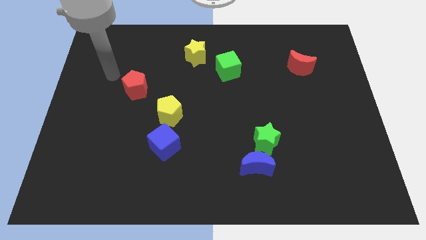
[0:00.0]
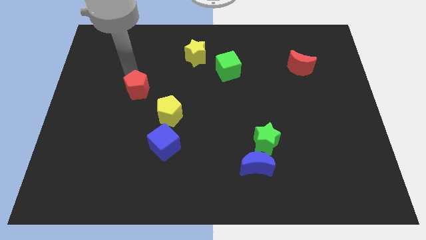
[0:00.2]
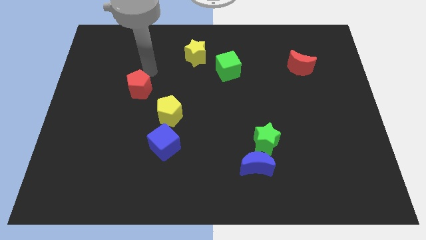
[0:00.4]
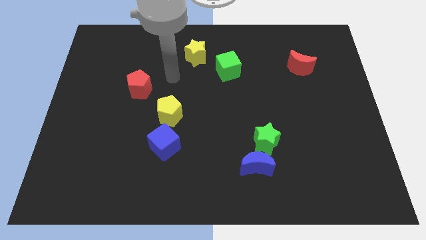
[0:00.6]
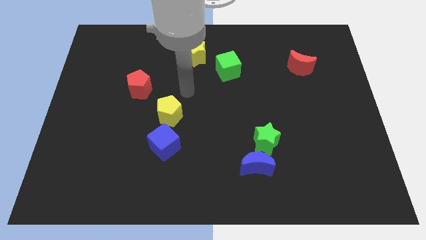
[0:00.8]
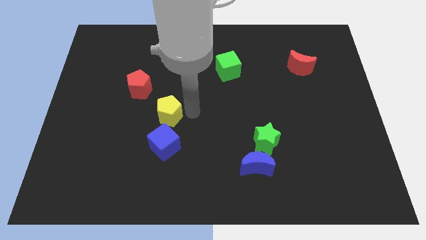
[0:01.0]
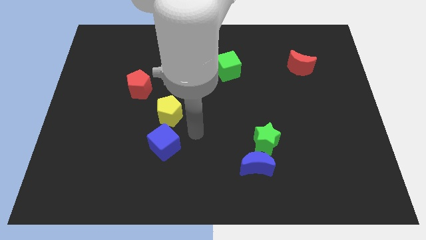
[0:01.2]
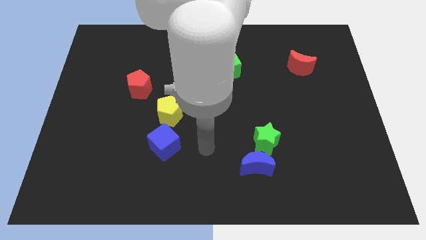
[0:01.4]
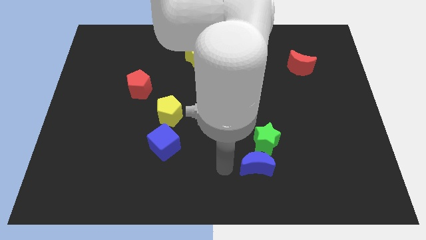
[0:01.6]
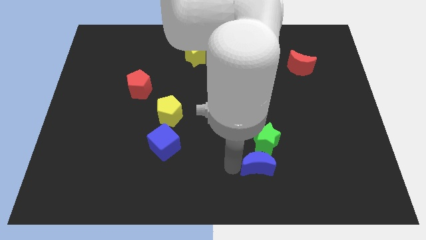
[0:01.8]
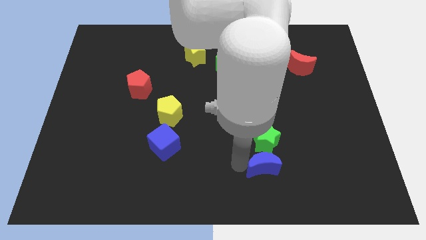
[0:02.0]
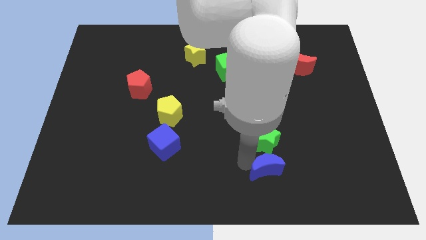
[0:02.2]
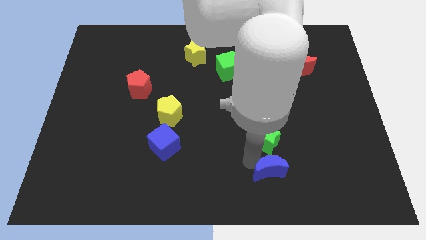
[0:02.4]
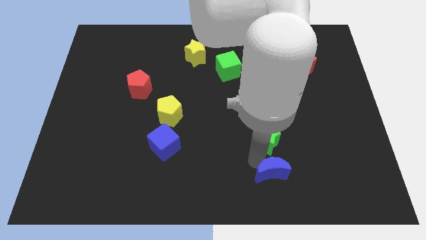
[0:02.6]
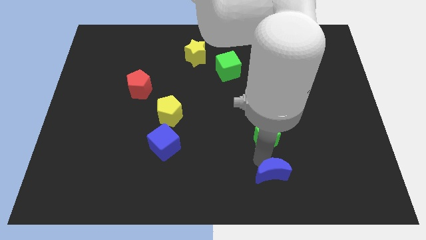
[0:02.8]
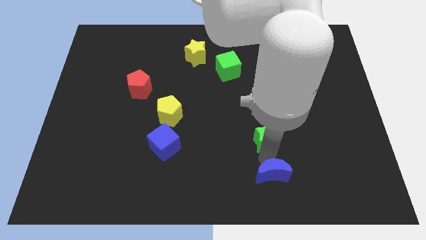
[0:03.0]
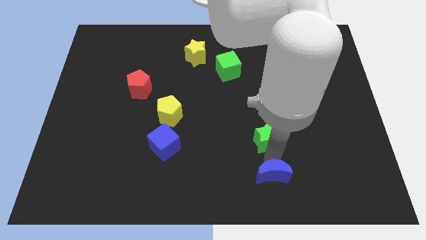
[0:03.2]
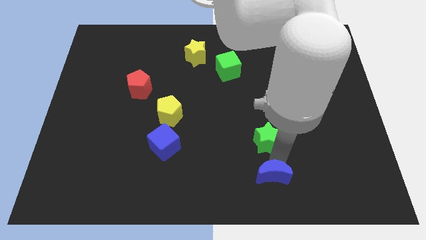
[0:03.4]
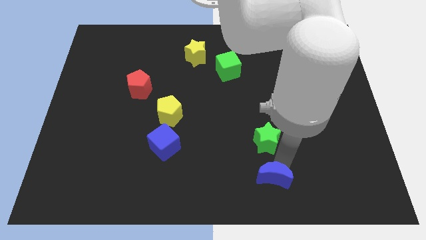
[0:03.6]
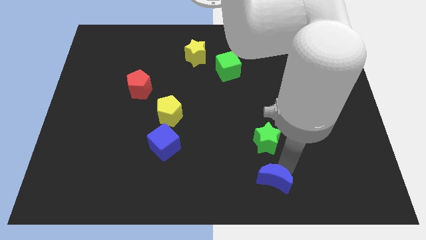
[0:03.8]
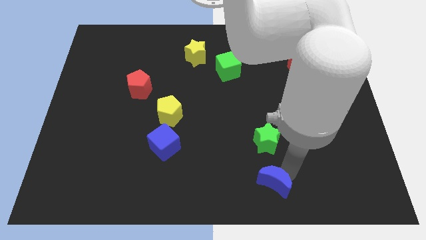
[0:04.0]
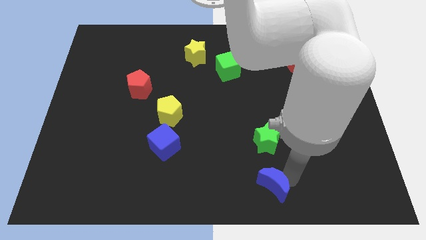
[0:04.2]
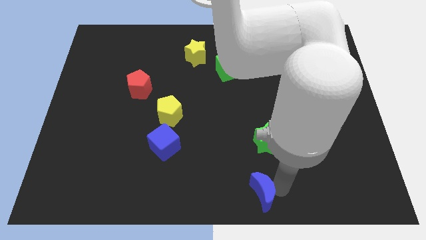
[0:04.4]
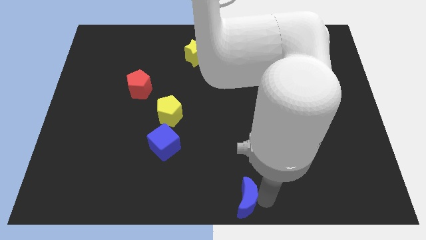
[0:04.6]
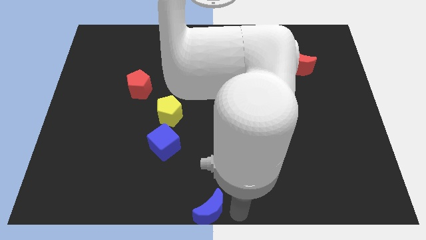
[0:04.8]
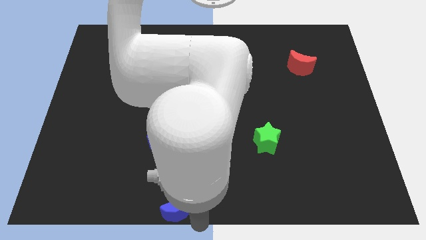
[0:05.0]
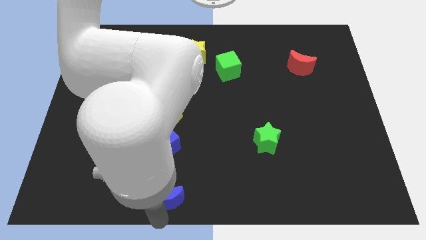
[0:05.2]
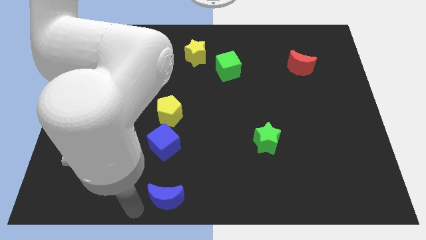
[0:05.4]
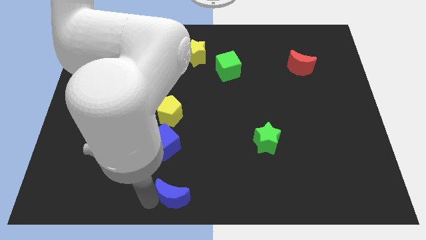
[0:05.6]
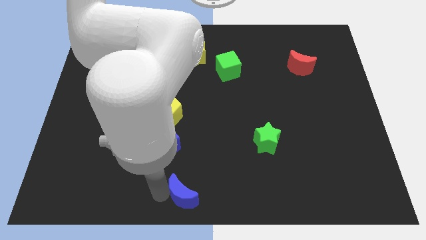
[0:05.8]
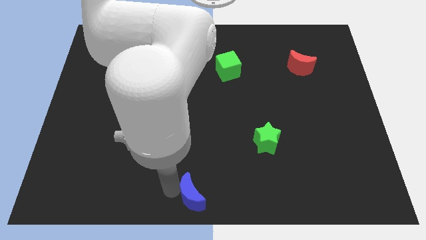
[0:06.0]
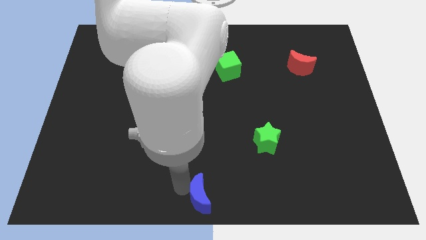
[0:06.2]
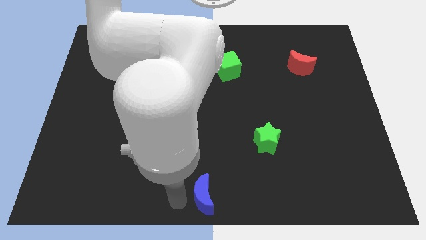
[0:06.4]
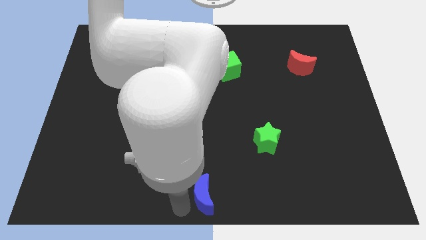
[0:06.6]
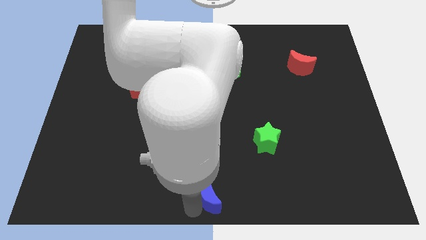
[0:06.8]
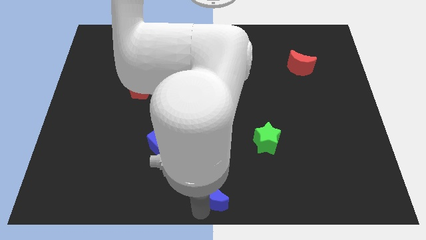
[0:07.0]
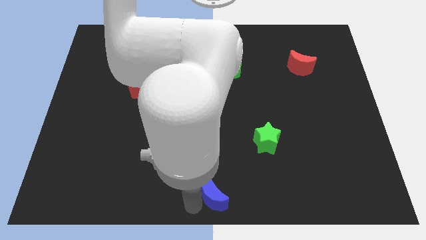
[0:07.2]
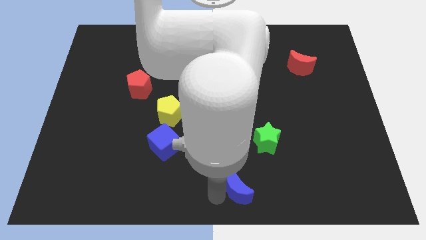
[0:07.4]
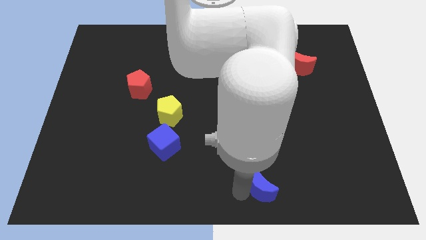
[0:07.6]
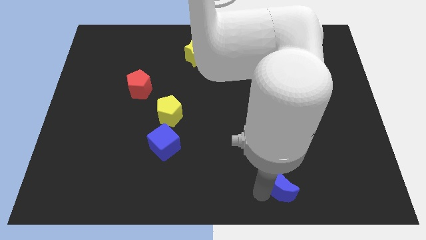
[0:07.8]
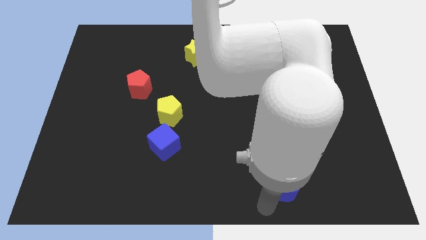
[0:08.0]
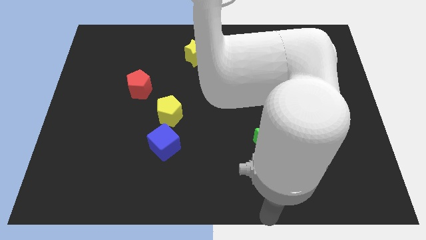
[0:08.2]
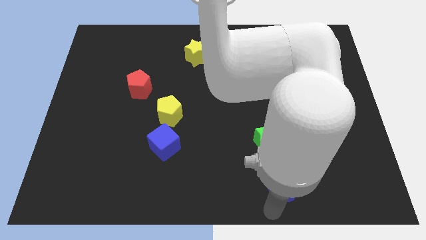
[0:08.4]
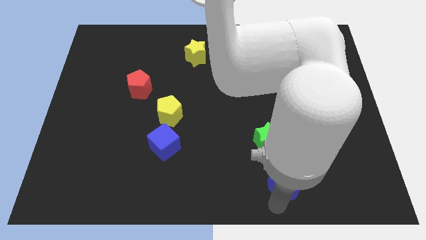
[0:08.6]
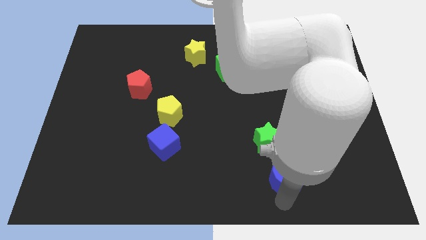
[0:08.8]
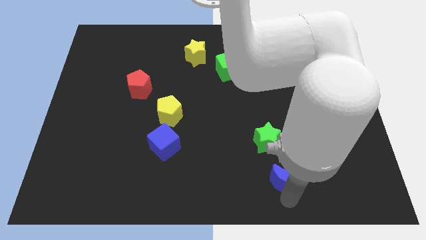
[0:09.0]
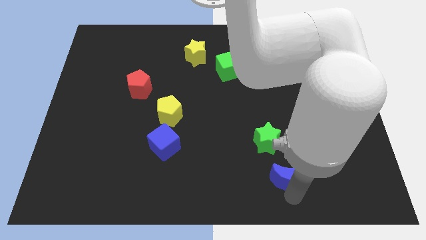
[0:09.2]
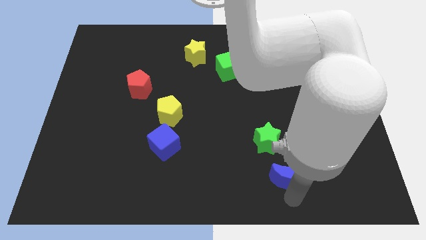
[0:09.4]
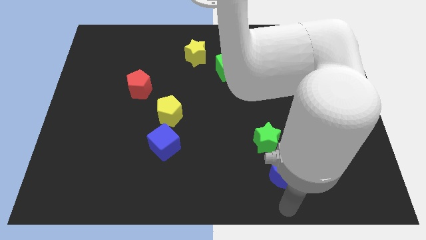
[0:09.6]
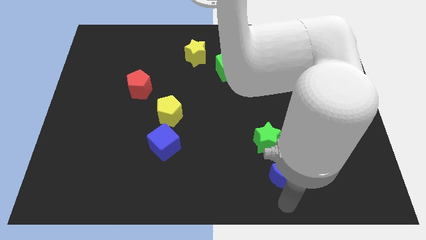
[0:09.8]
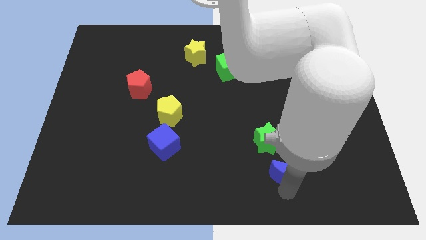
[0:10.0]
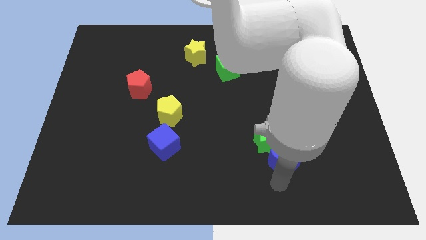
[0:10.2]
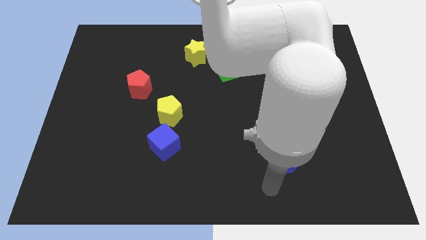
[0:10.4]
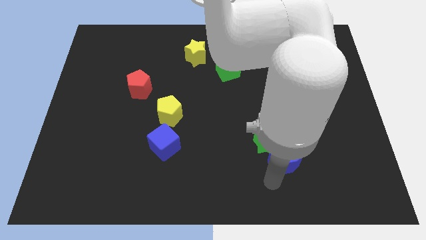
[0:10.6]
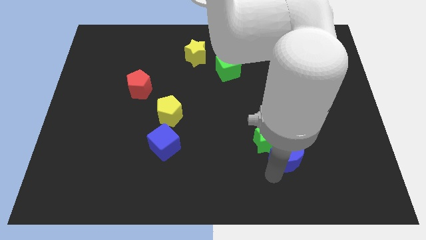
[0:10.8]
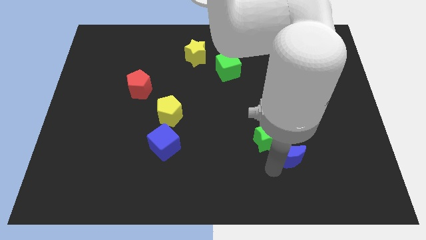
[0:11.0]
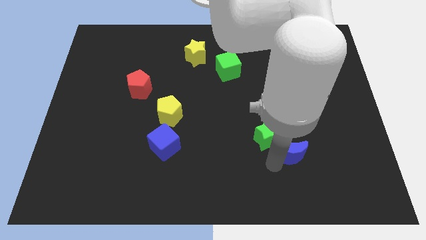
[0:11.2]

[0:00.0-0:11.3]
move the blue moon up and to the right diagonally a little bit

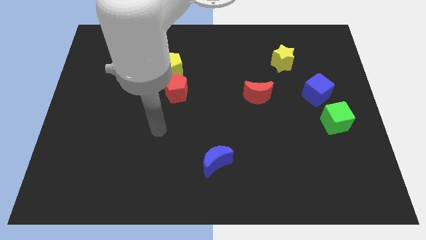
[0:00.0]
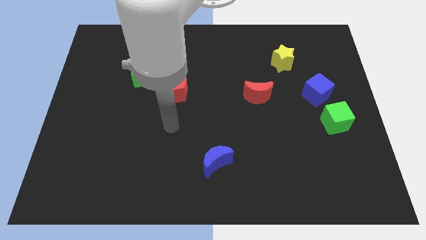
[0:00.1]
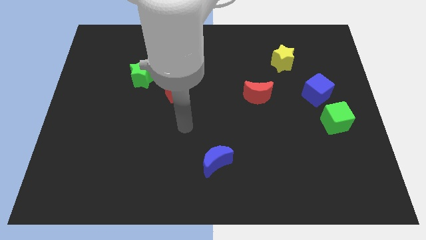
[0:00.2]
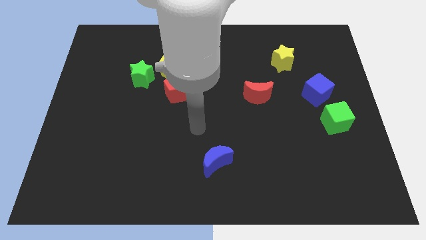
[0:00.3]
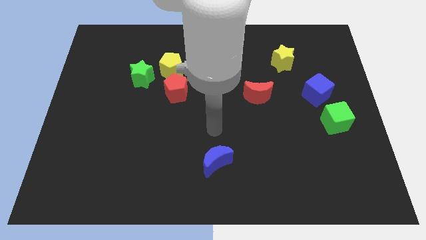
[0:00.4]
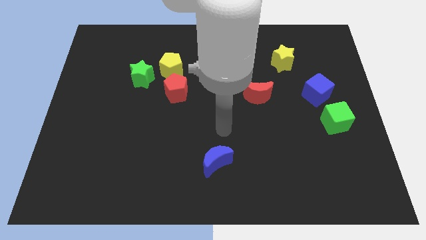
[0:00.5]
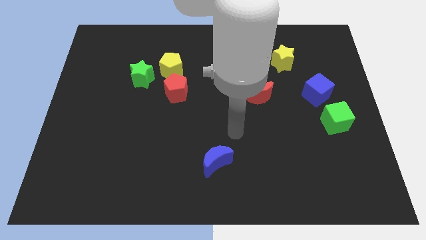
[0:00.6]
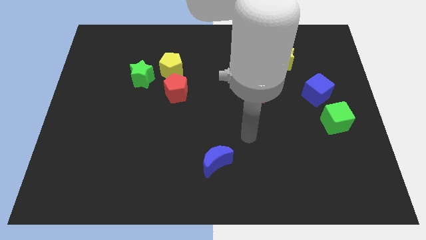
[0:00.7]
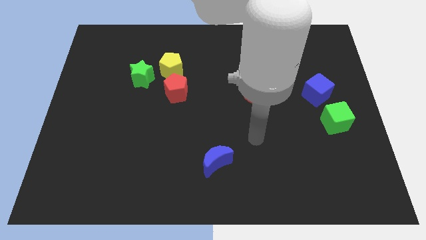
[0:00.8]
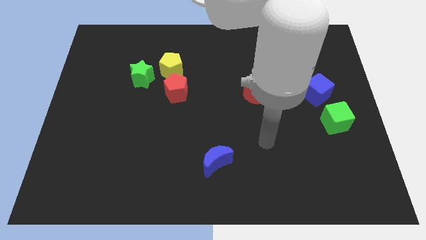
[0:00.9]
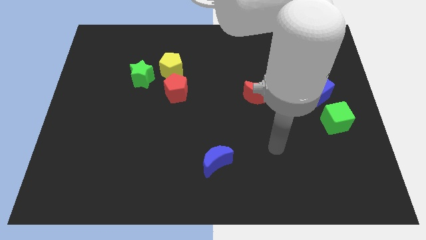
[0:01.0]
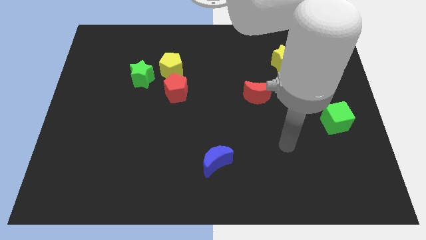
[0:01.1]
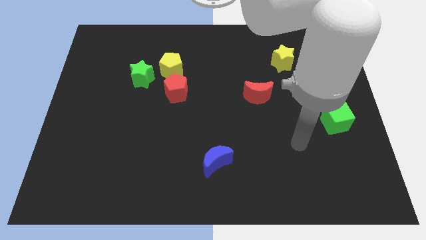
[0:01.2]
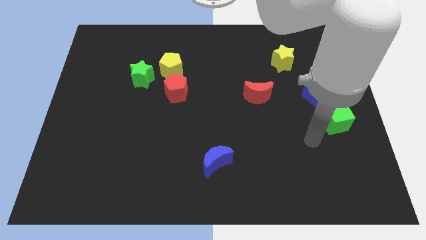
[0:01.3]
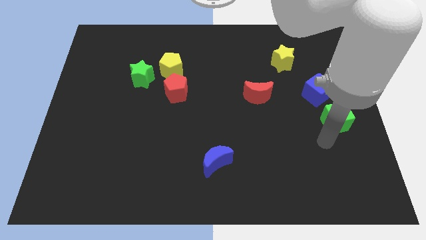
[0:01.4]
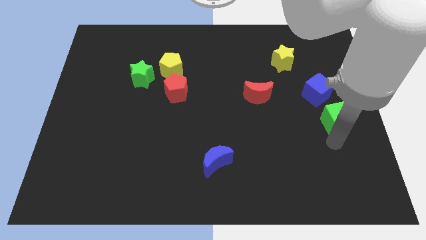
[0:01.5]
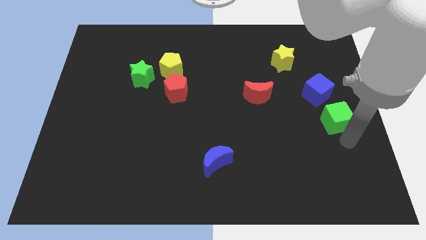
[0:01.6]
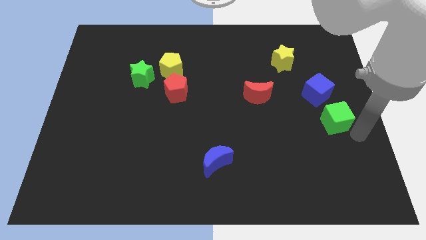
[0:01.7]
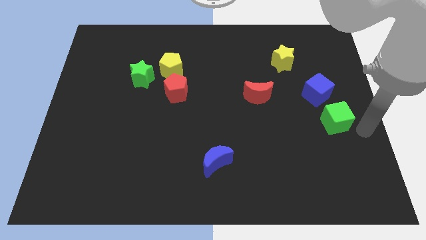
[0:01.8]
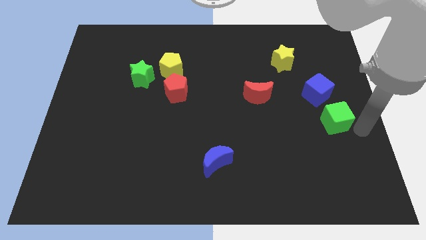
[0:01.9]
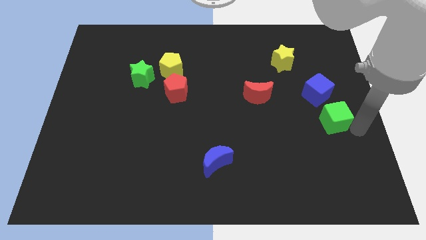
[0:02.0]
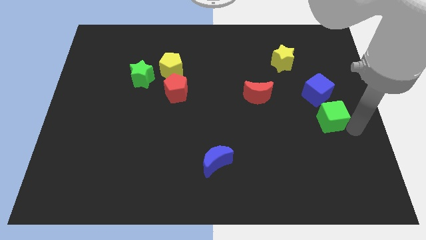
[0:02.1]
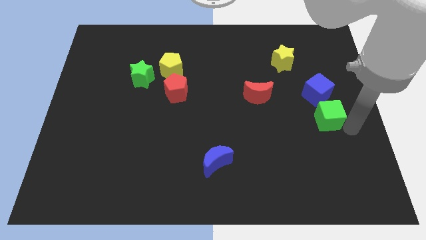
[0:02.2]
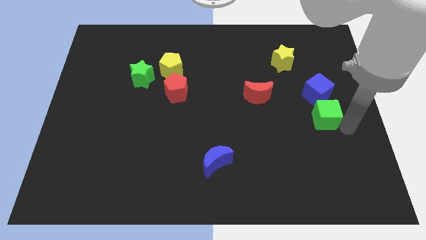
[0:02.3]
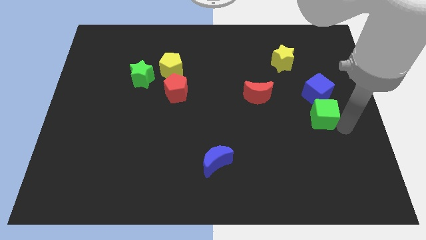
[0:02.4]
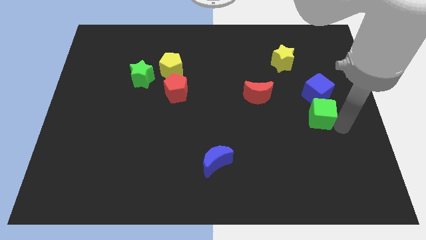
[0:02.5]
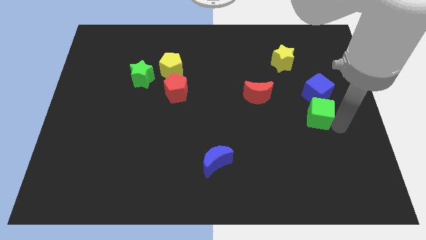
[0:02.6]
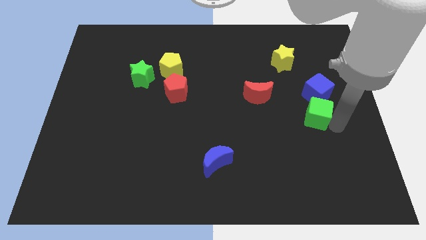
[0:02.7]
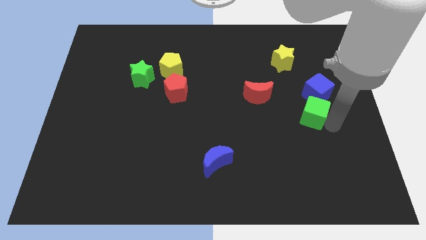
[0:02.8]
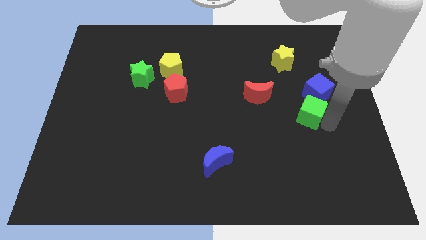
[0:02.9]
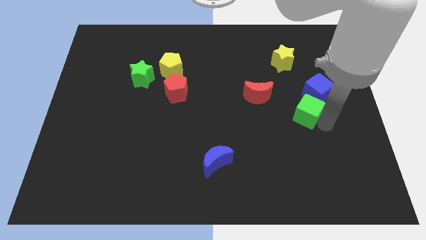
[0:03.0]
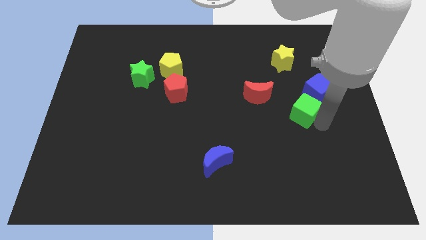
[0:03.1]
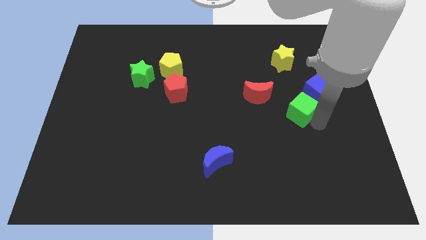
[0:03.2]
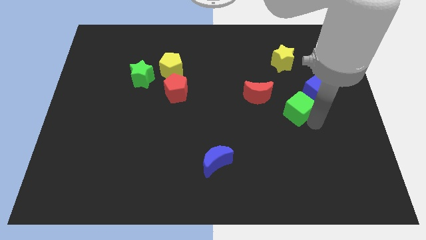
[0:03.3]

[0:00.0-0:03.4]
slide the green cube diagonally upwards and to the left somewhat
